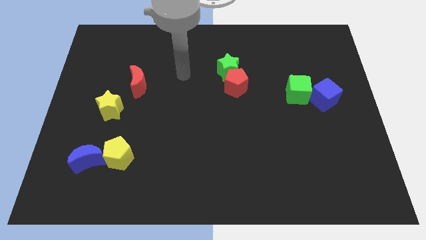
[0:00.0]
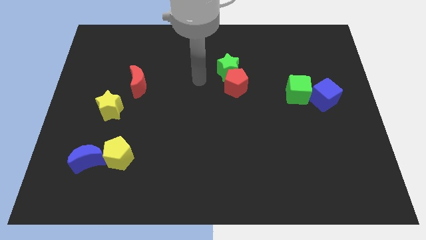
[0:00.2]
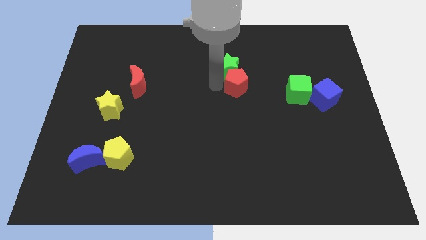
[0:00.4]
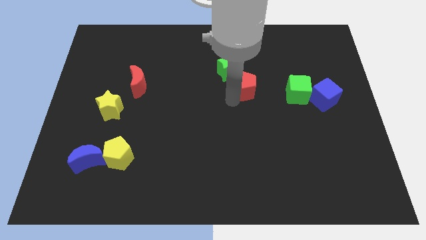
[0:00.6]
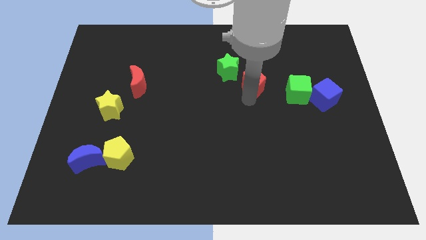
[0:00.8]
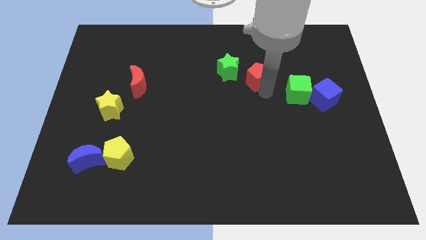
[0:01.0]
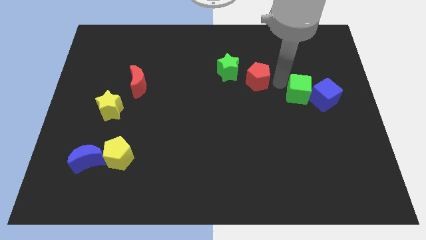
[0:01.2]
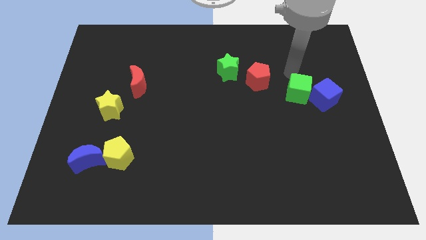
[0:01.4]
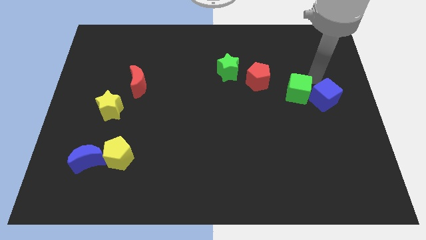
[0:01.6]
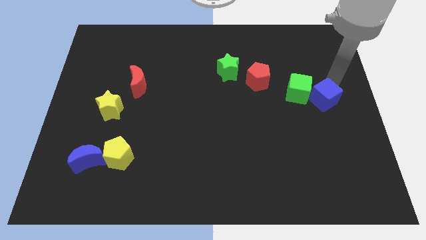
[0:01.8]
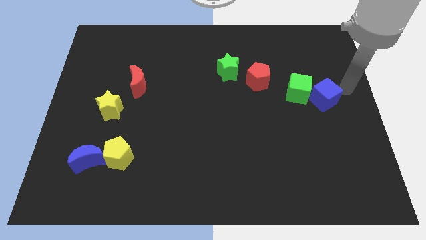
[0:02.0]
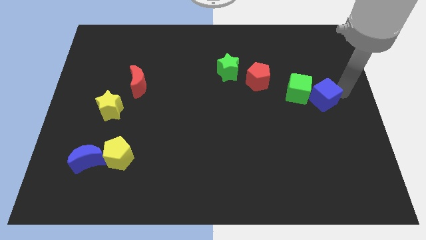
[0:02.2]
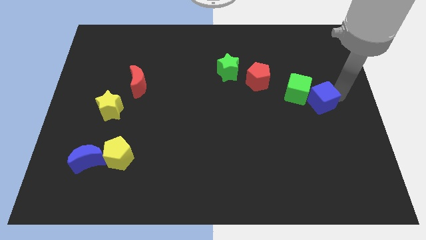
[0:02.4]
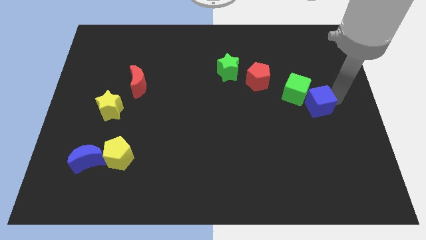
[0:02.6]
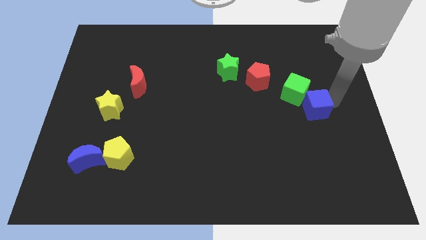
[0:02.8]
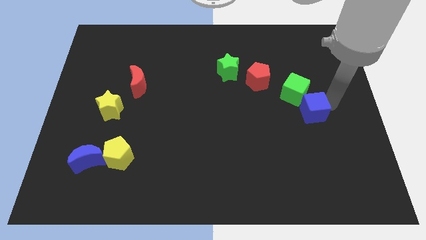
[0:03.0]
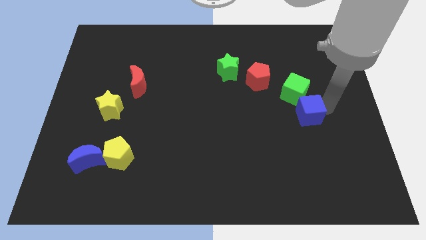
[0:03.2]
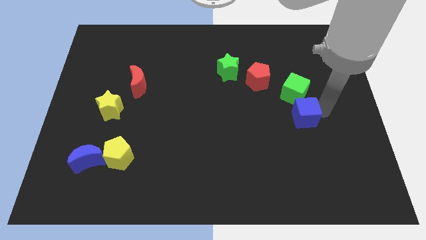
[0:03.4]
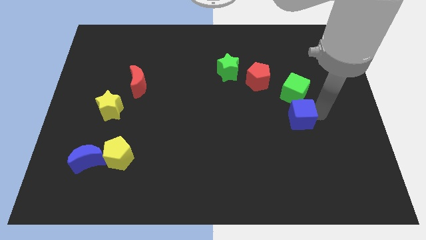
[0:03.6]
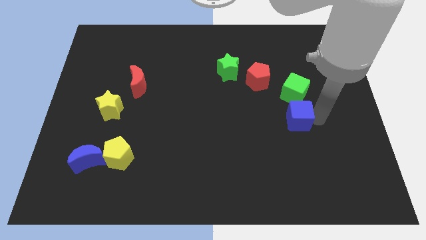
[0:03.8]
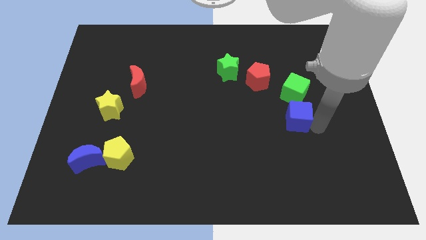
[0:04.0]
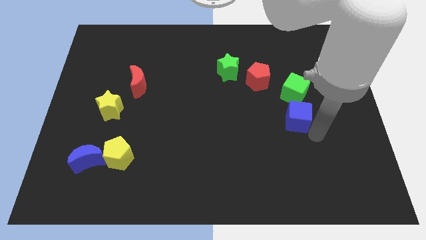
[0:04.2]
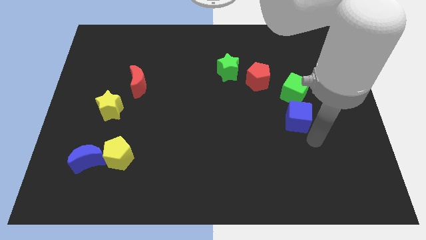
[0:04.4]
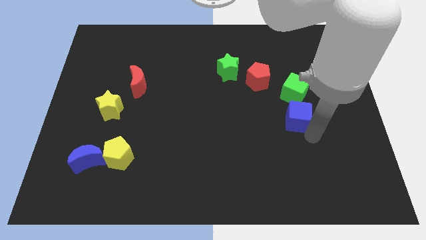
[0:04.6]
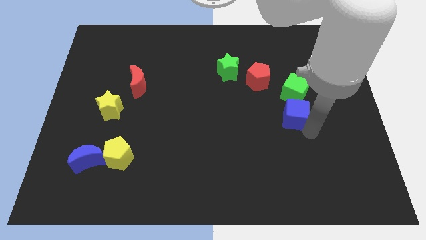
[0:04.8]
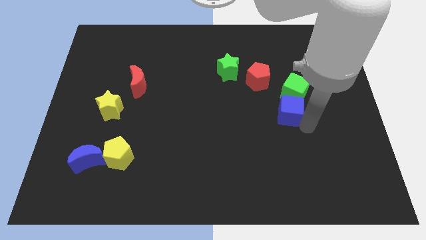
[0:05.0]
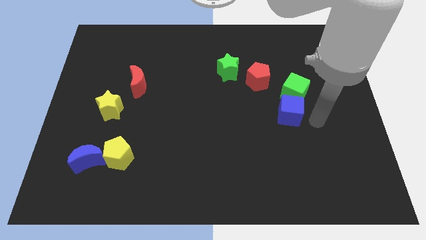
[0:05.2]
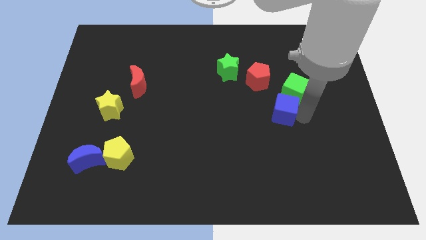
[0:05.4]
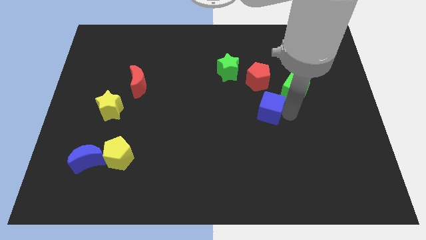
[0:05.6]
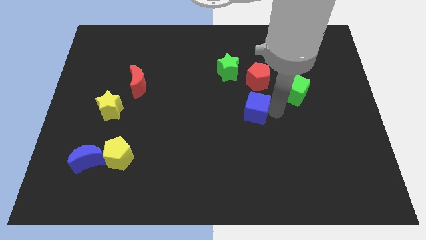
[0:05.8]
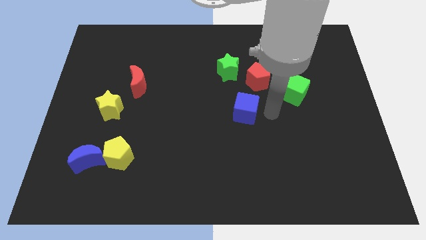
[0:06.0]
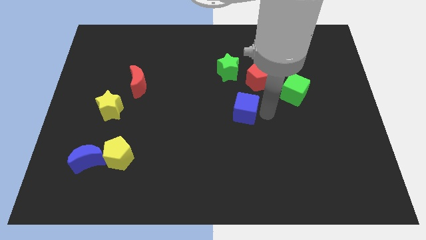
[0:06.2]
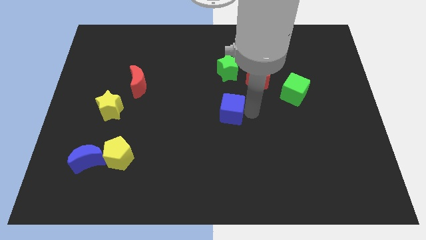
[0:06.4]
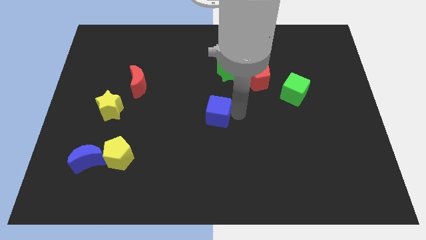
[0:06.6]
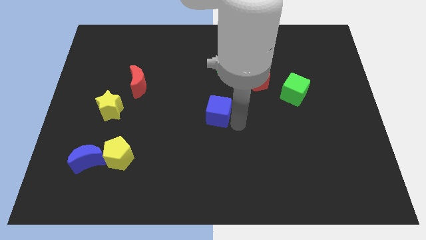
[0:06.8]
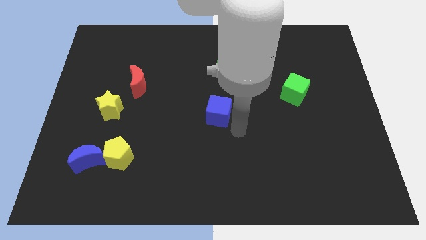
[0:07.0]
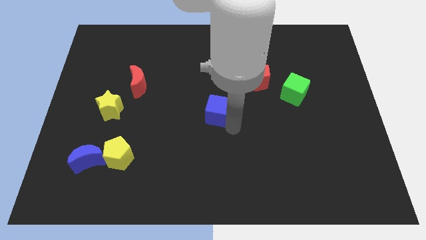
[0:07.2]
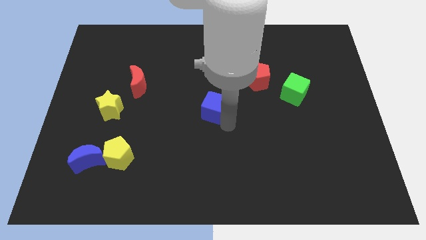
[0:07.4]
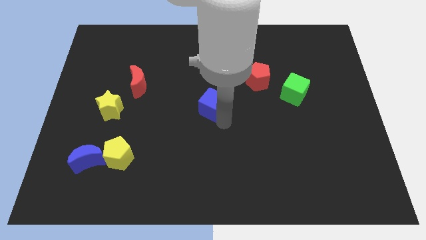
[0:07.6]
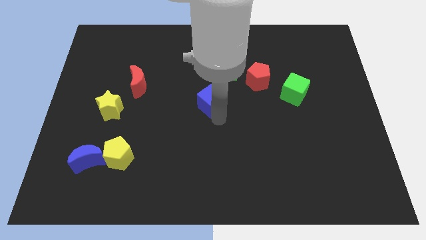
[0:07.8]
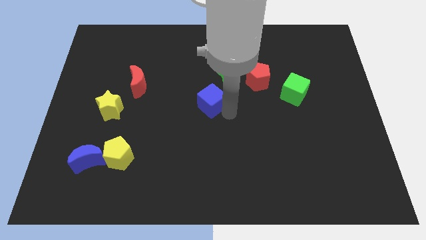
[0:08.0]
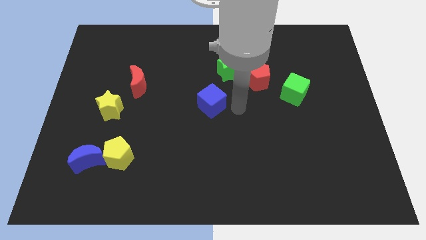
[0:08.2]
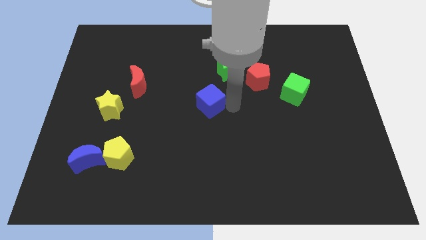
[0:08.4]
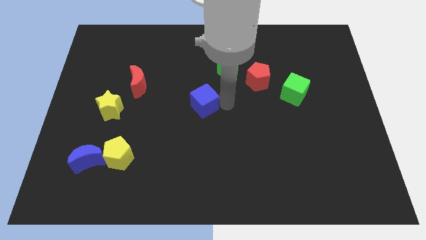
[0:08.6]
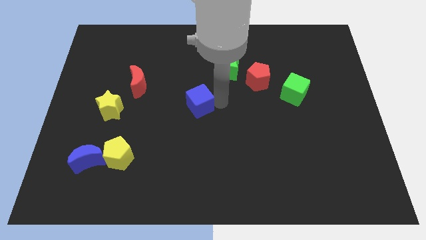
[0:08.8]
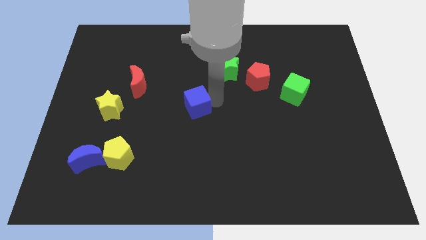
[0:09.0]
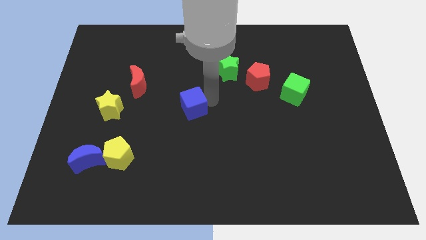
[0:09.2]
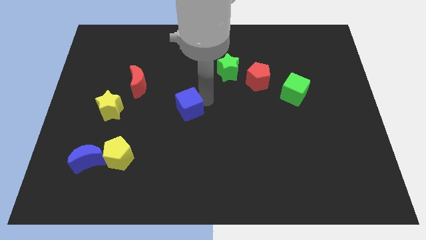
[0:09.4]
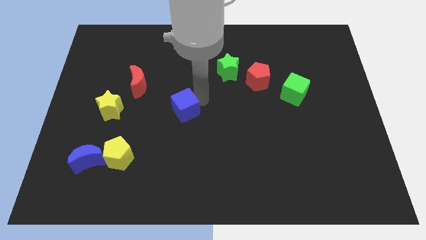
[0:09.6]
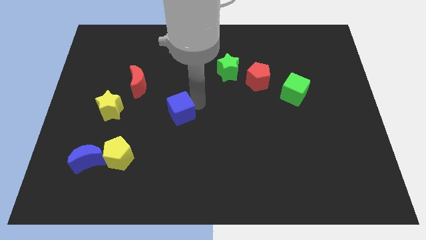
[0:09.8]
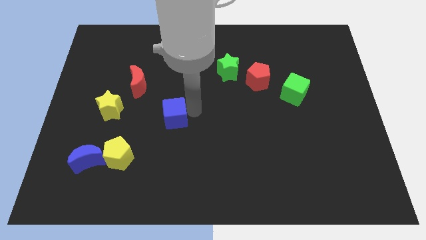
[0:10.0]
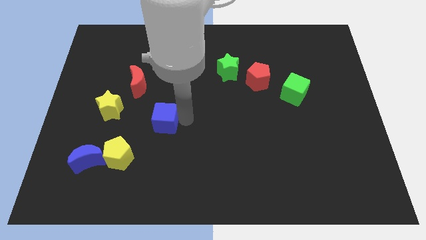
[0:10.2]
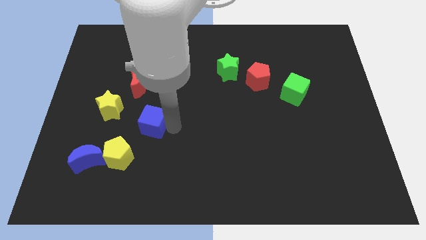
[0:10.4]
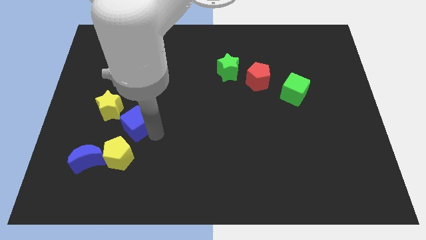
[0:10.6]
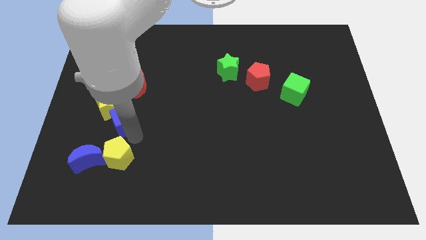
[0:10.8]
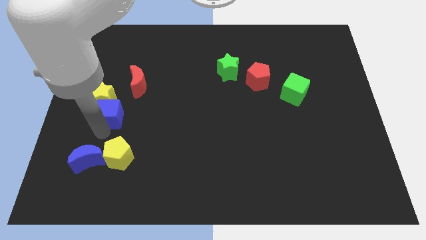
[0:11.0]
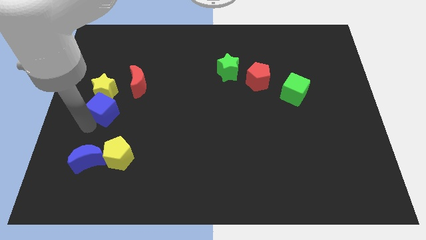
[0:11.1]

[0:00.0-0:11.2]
push the blue cube to the left side

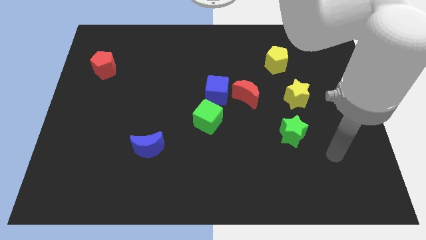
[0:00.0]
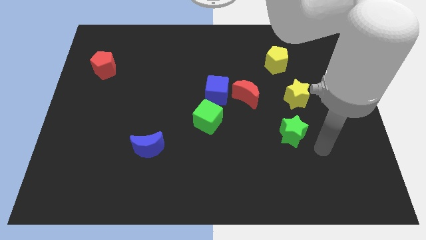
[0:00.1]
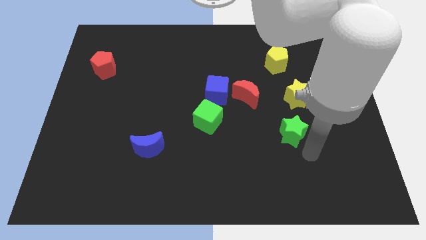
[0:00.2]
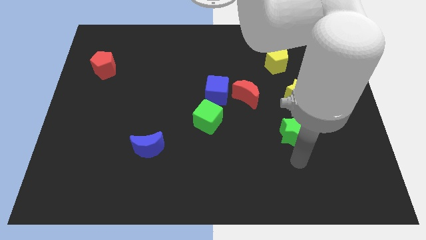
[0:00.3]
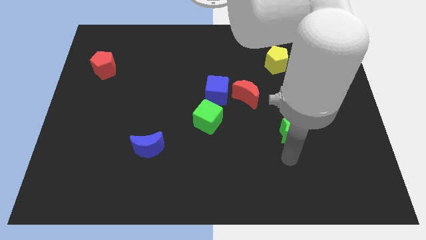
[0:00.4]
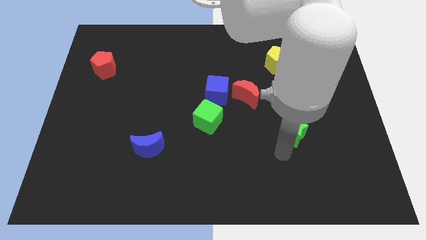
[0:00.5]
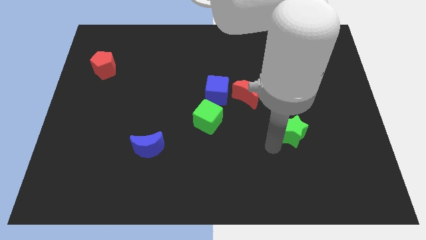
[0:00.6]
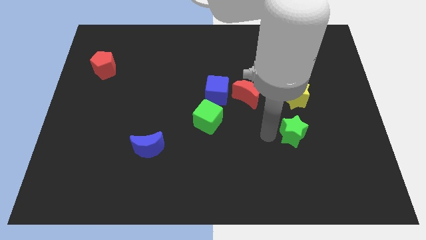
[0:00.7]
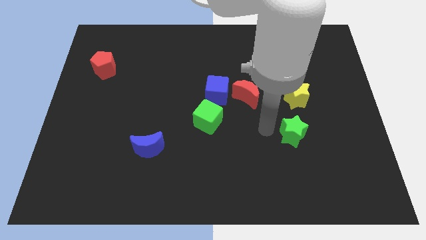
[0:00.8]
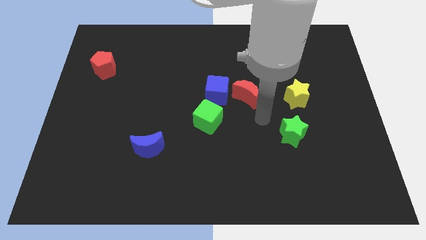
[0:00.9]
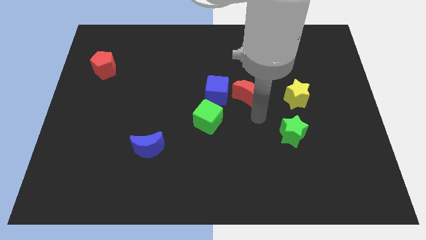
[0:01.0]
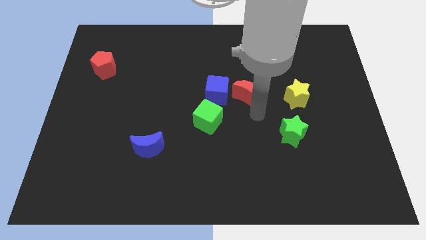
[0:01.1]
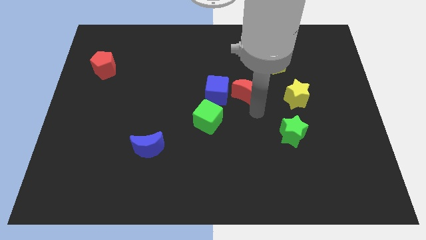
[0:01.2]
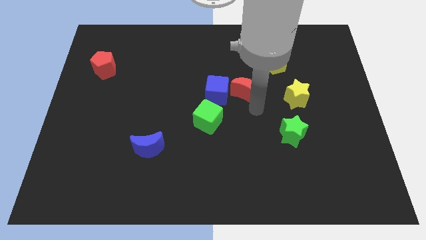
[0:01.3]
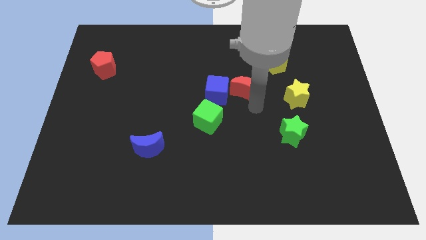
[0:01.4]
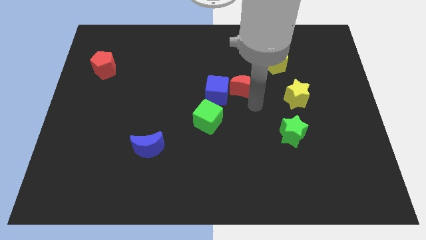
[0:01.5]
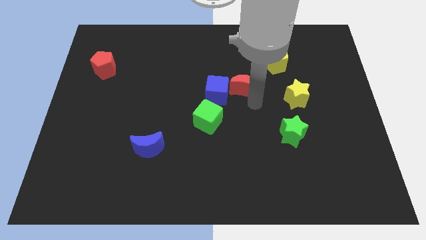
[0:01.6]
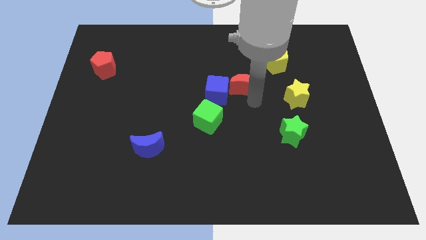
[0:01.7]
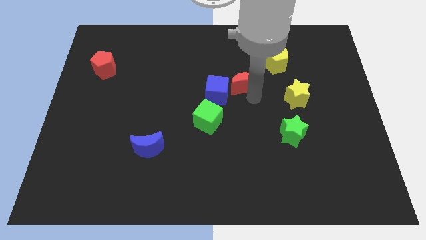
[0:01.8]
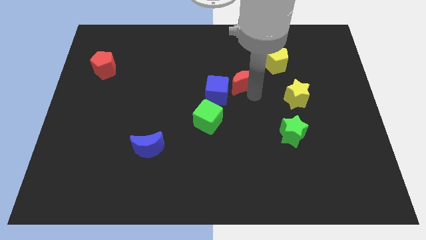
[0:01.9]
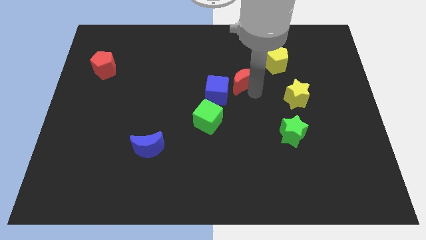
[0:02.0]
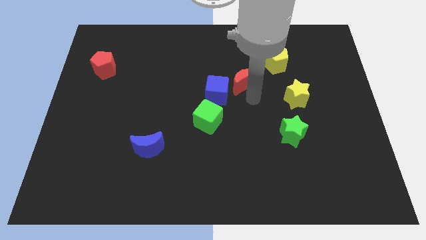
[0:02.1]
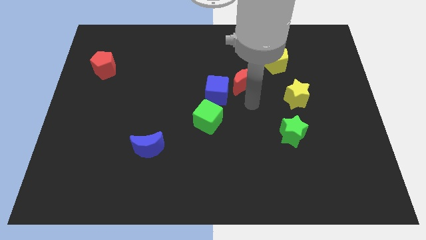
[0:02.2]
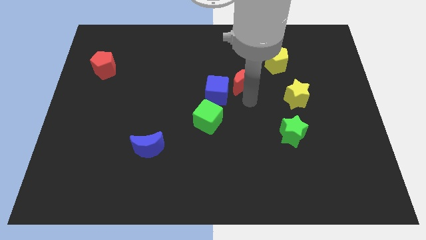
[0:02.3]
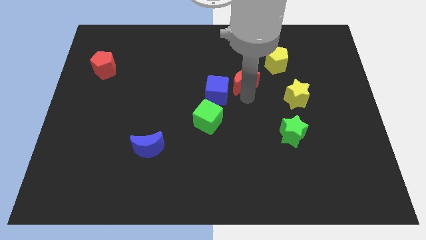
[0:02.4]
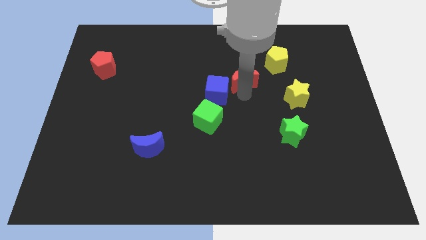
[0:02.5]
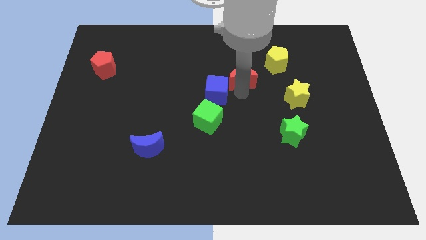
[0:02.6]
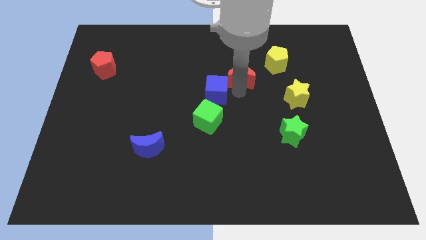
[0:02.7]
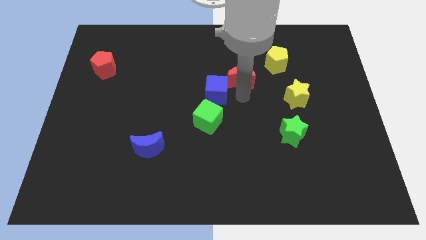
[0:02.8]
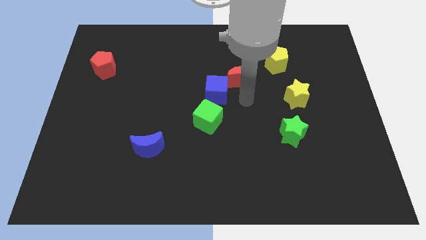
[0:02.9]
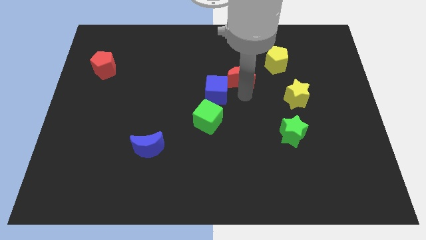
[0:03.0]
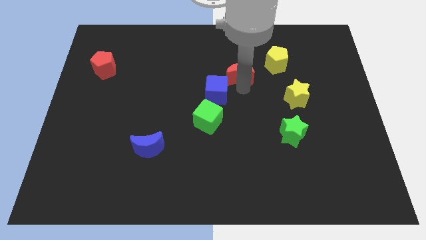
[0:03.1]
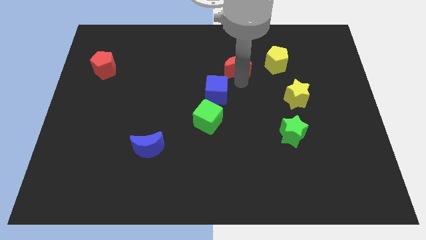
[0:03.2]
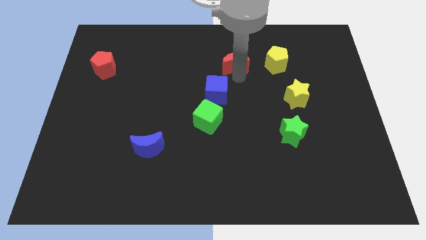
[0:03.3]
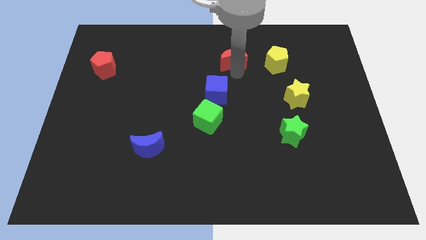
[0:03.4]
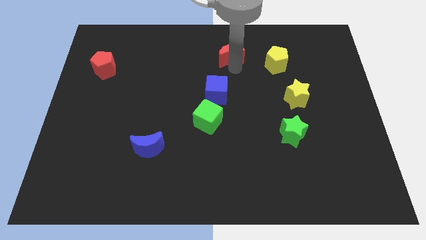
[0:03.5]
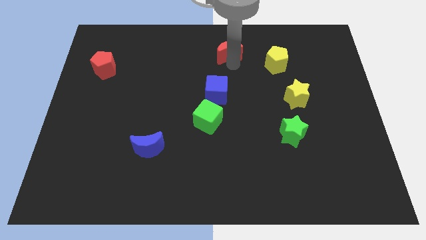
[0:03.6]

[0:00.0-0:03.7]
slide the red moon to the towards your base
